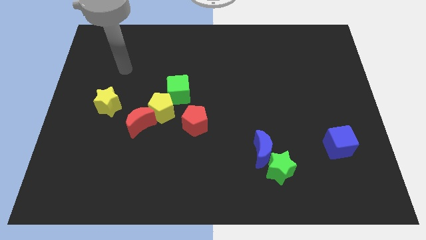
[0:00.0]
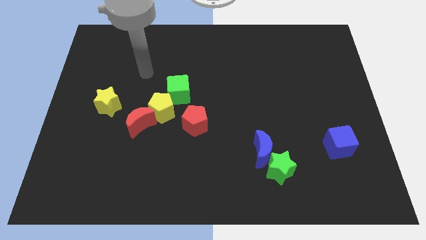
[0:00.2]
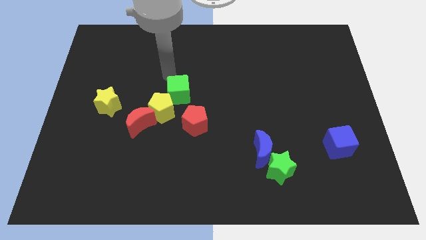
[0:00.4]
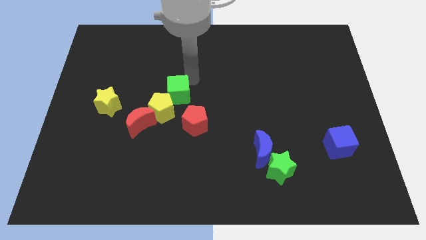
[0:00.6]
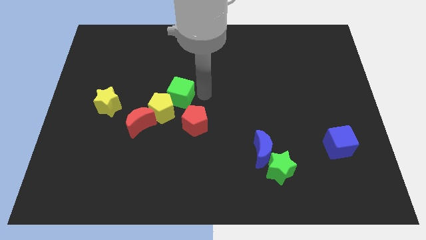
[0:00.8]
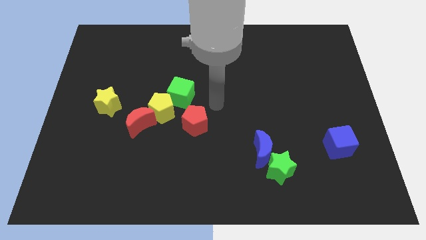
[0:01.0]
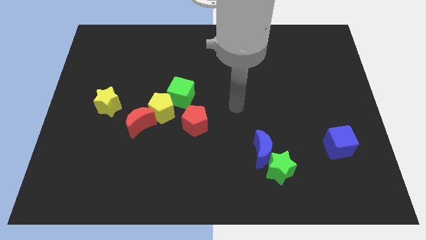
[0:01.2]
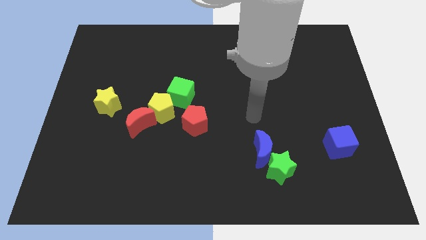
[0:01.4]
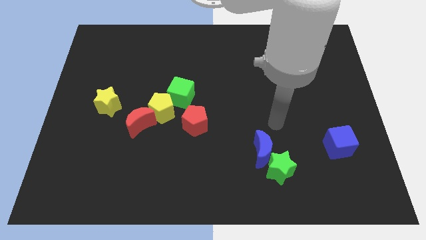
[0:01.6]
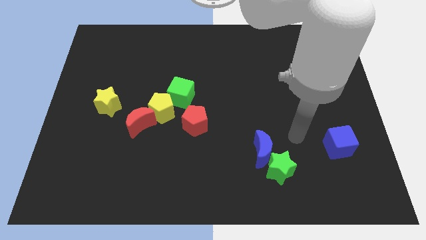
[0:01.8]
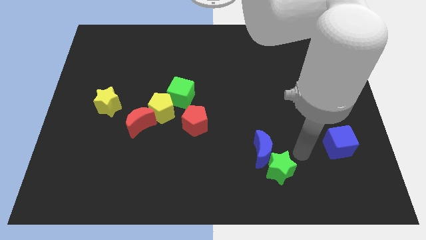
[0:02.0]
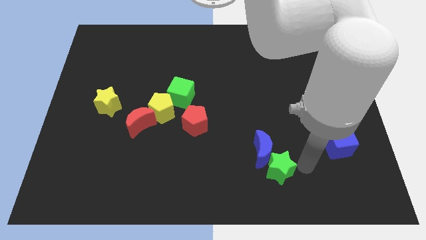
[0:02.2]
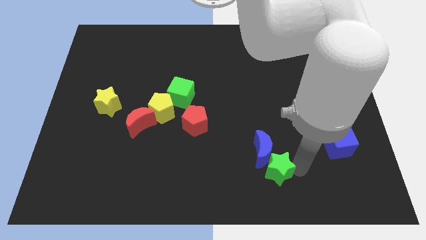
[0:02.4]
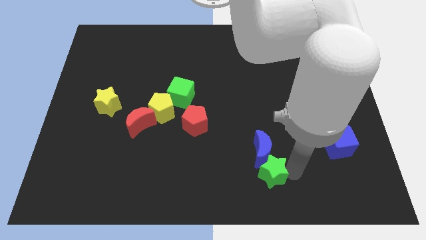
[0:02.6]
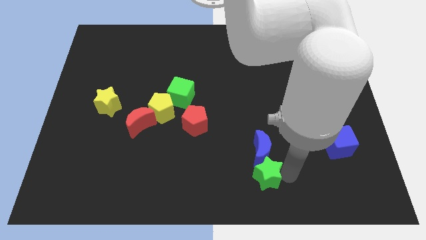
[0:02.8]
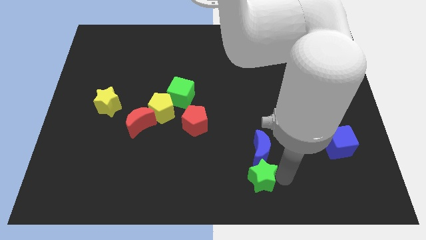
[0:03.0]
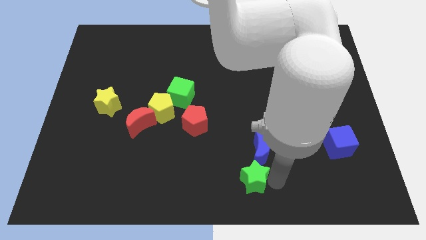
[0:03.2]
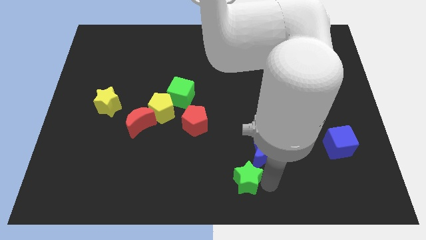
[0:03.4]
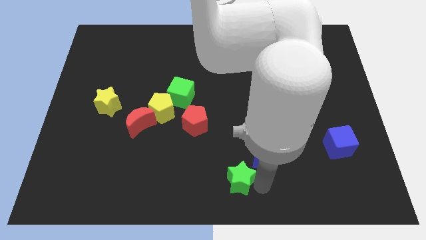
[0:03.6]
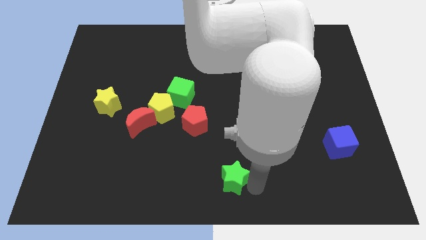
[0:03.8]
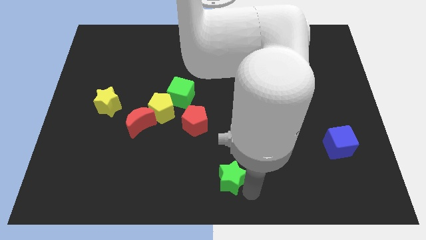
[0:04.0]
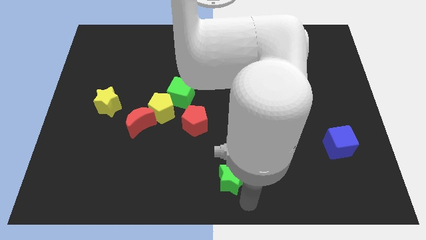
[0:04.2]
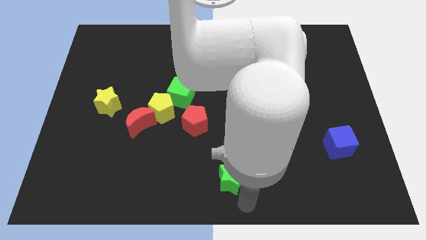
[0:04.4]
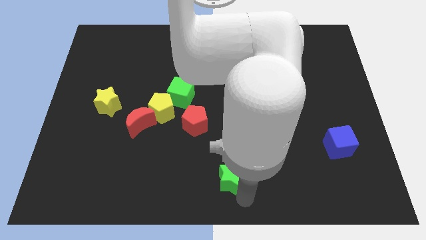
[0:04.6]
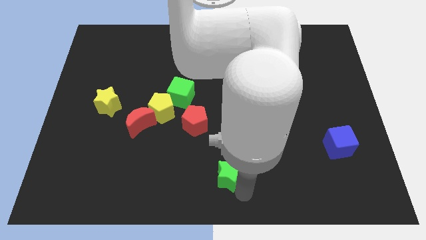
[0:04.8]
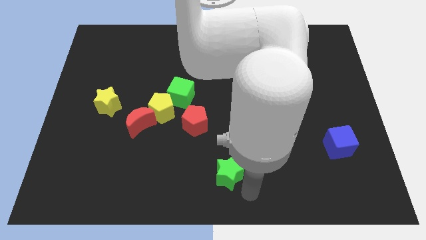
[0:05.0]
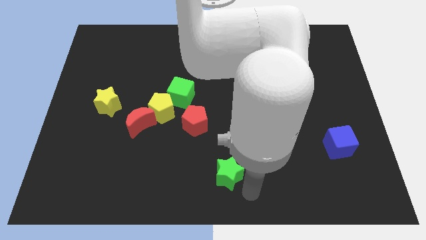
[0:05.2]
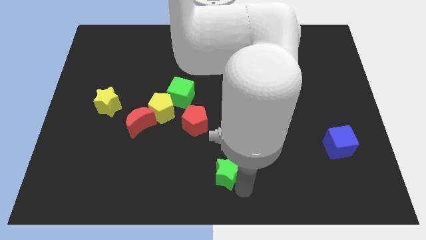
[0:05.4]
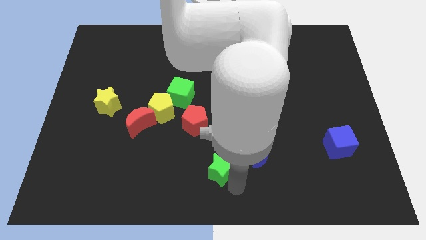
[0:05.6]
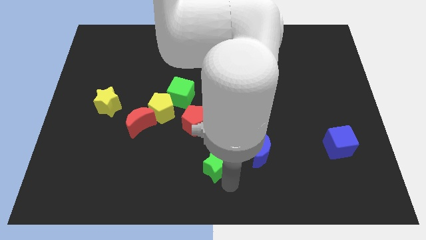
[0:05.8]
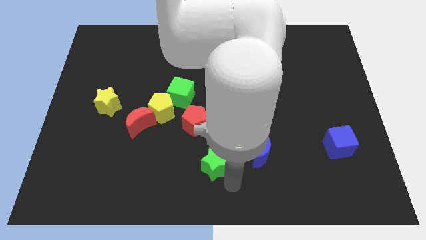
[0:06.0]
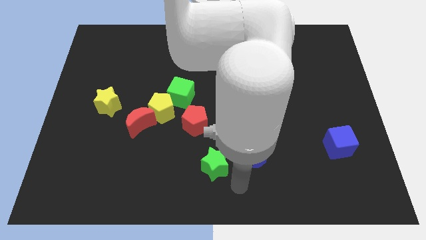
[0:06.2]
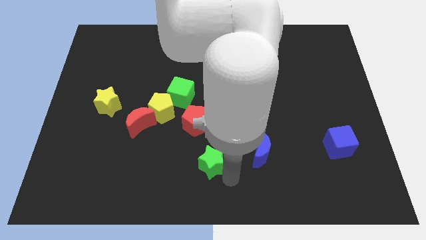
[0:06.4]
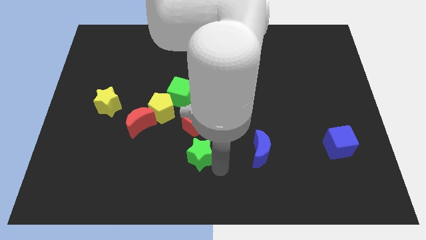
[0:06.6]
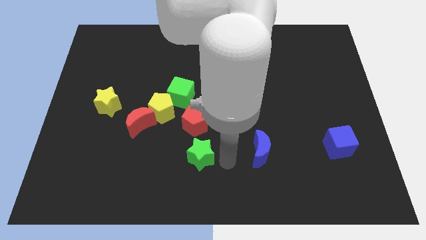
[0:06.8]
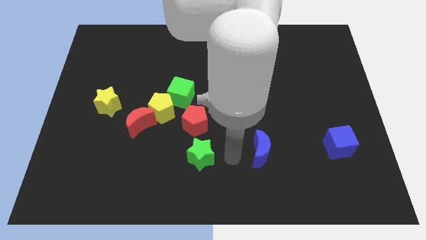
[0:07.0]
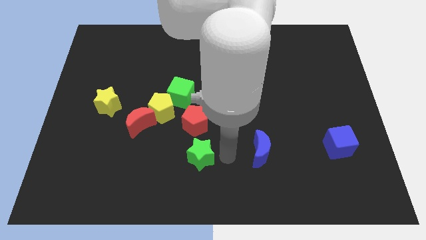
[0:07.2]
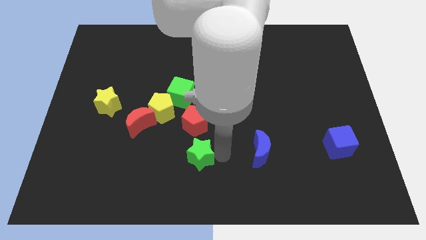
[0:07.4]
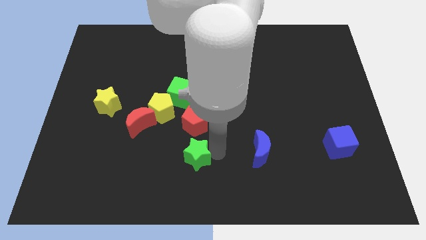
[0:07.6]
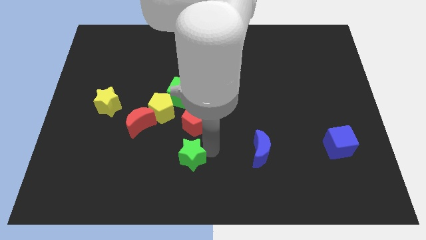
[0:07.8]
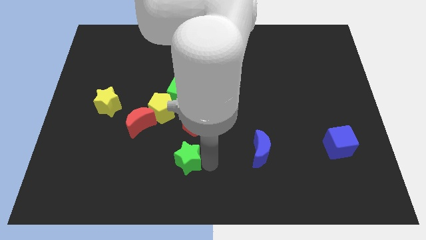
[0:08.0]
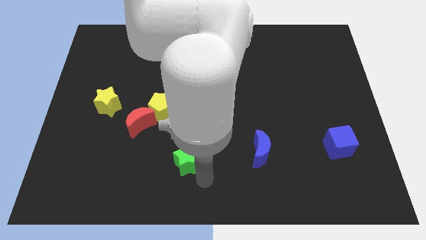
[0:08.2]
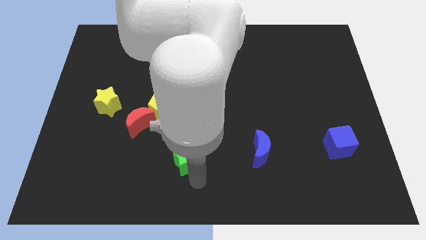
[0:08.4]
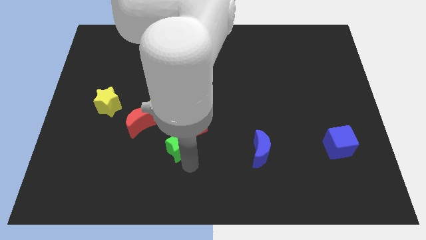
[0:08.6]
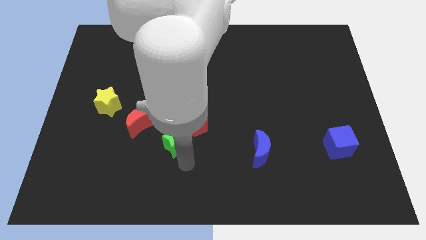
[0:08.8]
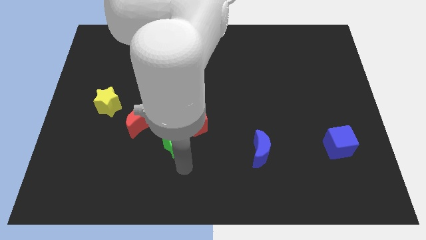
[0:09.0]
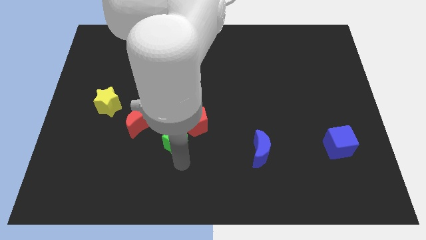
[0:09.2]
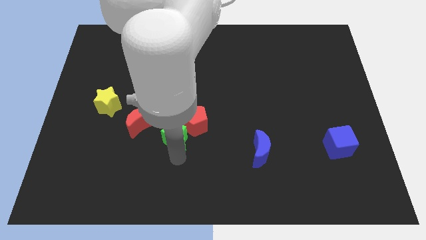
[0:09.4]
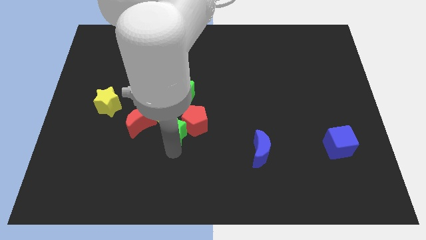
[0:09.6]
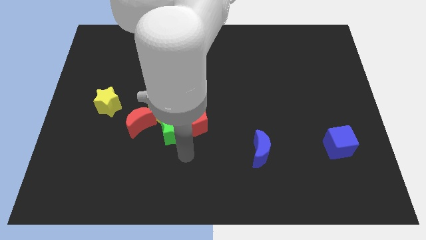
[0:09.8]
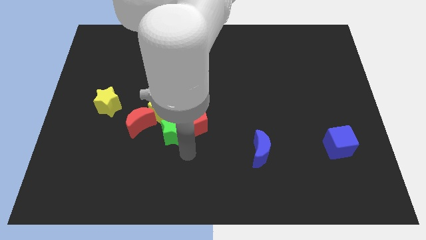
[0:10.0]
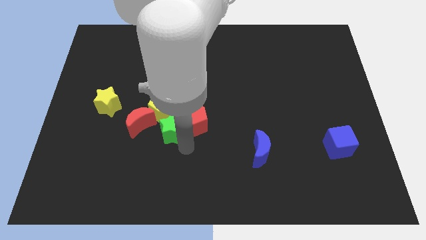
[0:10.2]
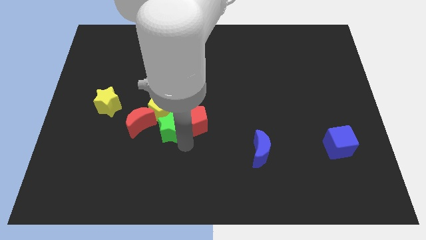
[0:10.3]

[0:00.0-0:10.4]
move the green star towards the yellow pentagon

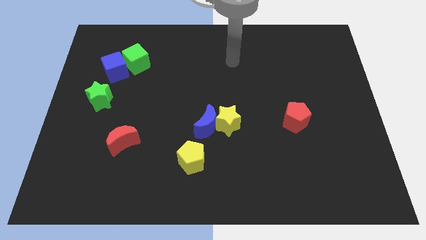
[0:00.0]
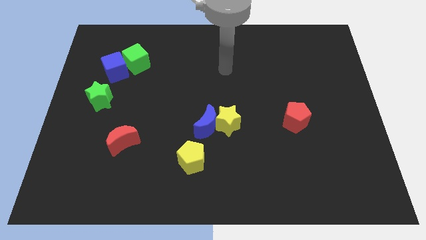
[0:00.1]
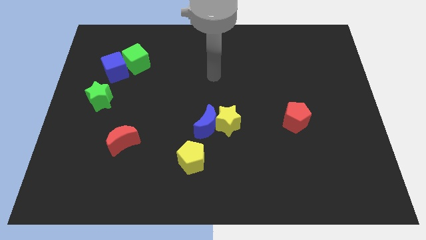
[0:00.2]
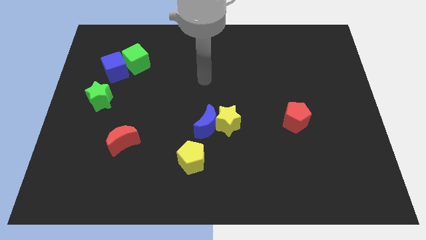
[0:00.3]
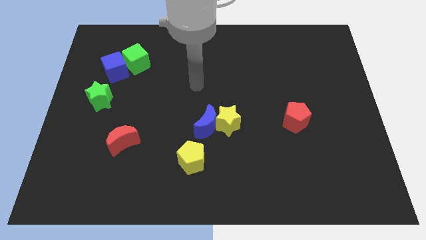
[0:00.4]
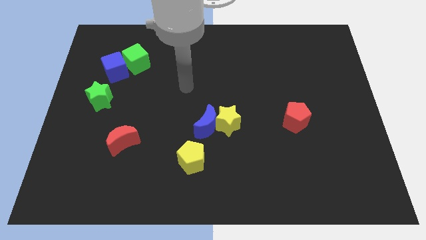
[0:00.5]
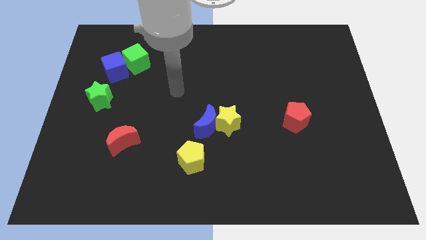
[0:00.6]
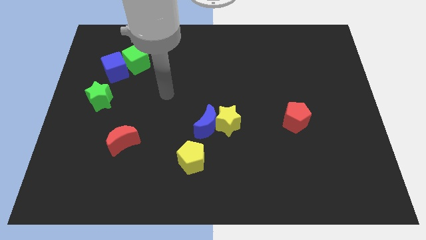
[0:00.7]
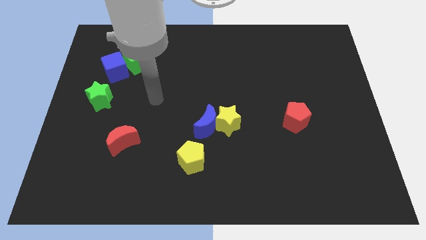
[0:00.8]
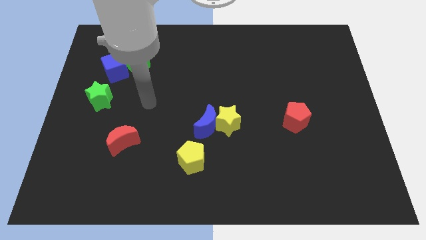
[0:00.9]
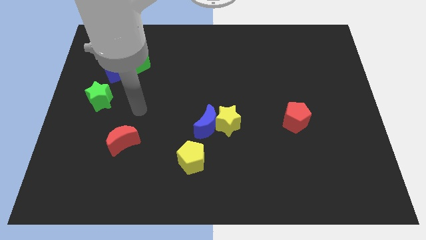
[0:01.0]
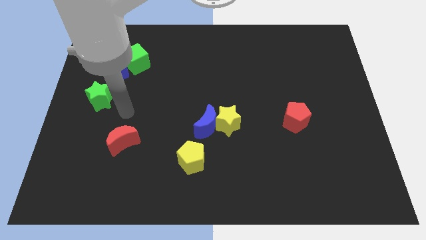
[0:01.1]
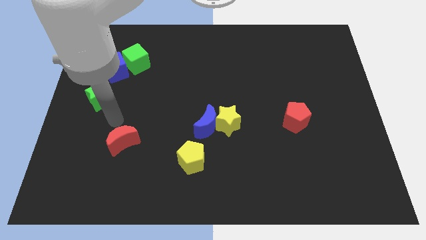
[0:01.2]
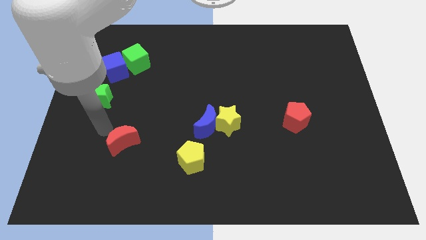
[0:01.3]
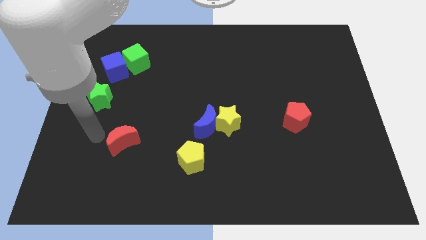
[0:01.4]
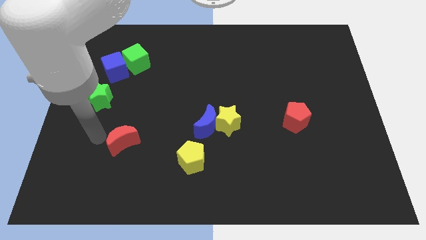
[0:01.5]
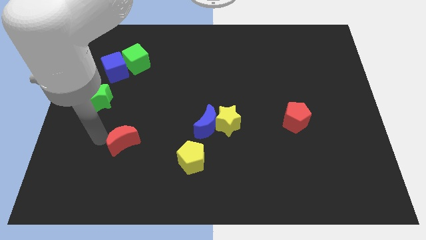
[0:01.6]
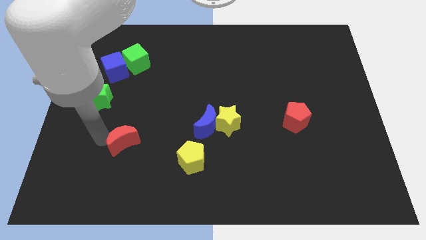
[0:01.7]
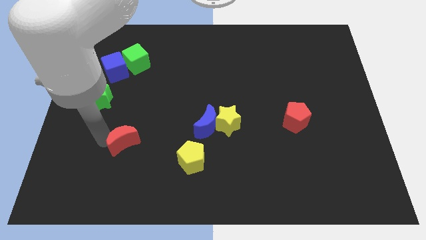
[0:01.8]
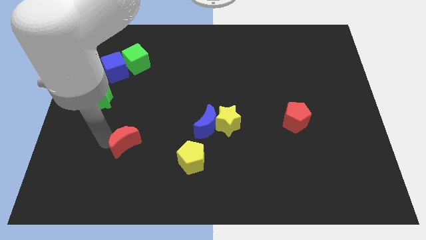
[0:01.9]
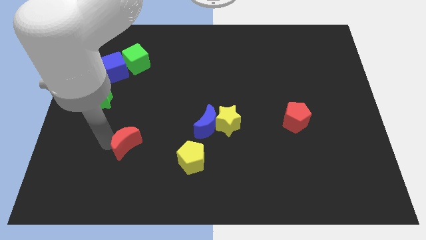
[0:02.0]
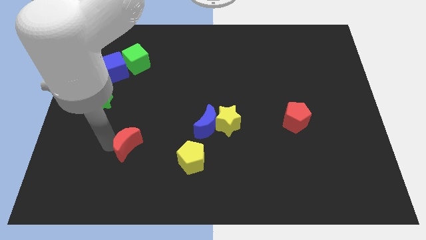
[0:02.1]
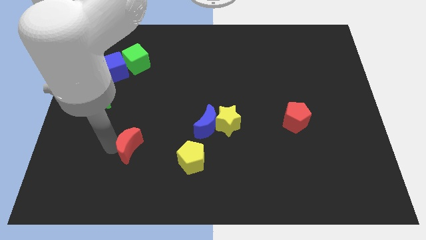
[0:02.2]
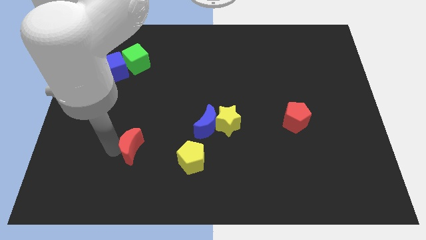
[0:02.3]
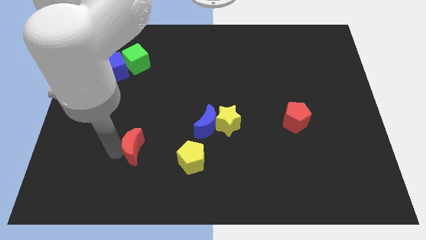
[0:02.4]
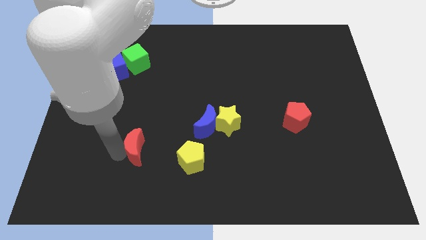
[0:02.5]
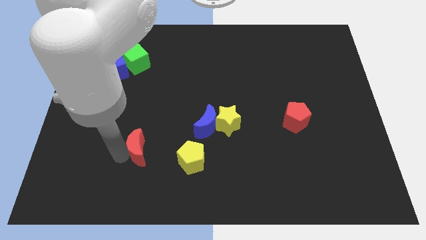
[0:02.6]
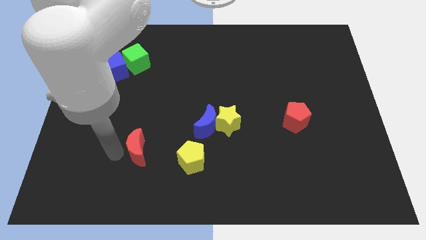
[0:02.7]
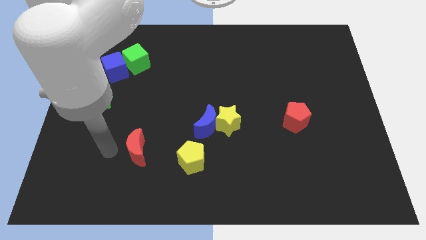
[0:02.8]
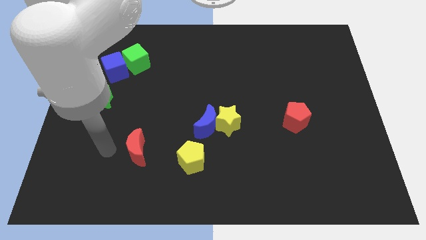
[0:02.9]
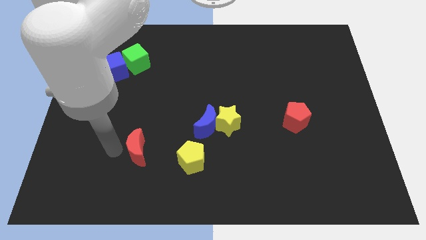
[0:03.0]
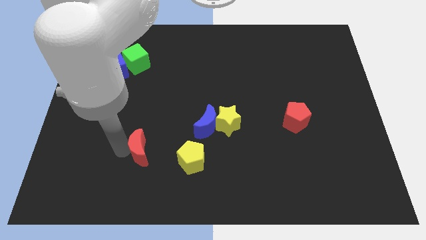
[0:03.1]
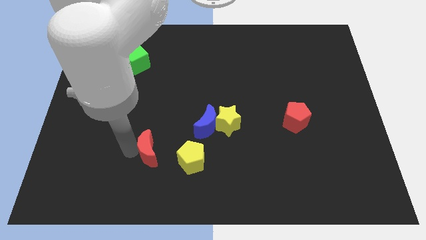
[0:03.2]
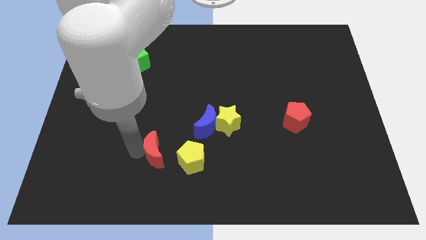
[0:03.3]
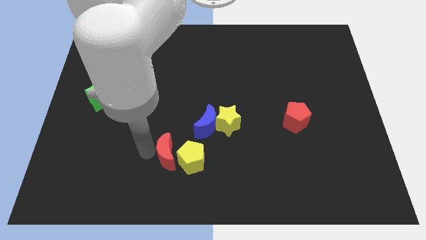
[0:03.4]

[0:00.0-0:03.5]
push the red moon next to the yellow pentagon
